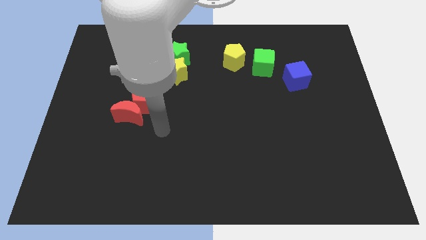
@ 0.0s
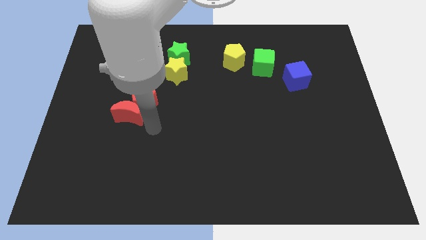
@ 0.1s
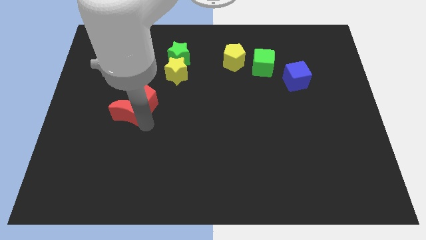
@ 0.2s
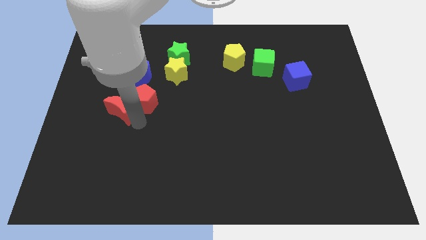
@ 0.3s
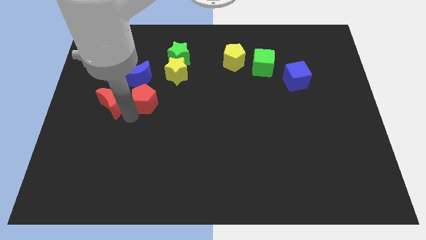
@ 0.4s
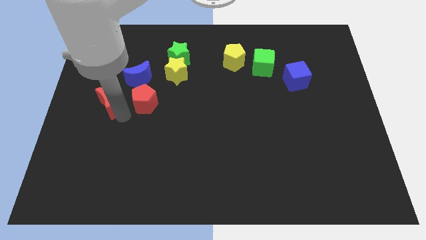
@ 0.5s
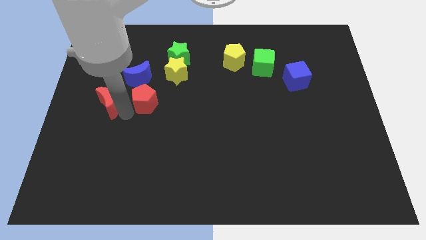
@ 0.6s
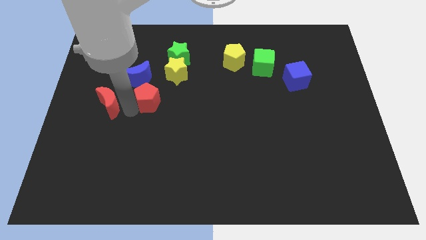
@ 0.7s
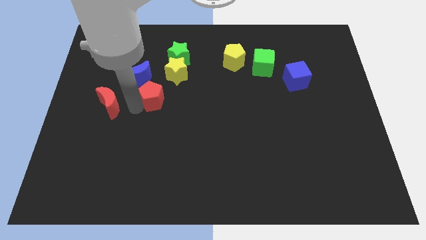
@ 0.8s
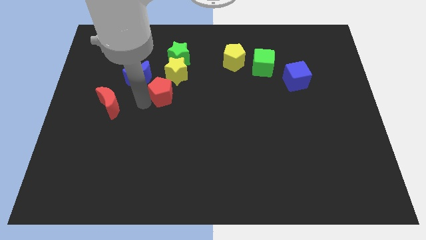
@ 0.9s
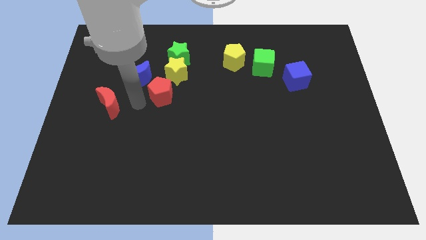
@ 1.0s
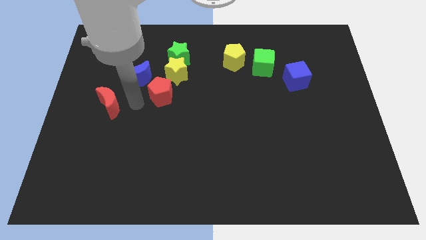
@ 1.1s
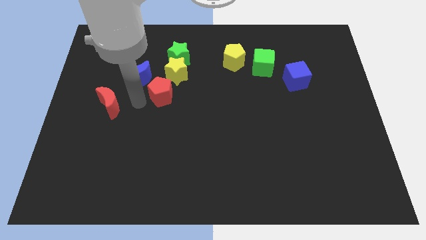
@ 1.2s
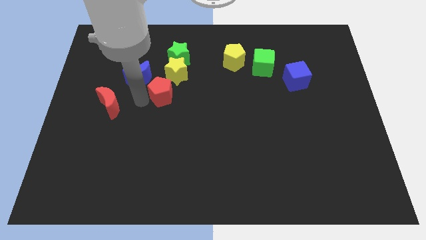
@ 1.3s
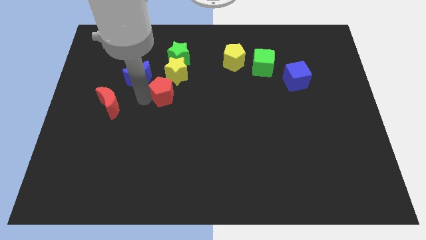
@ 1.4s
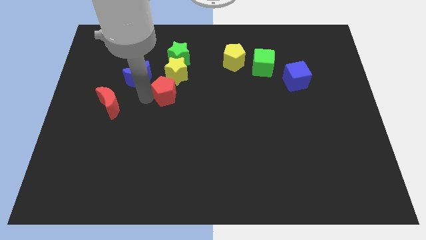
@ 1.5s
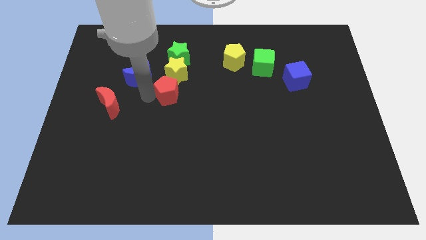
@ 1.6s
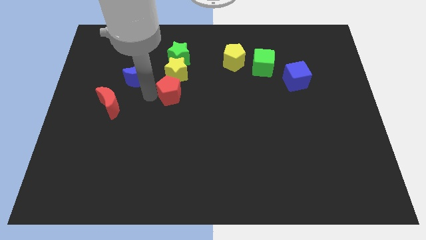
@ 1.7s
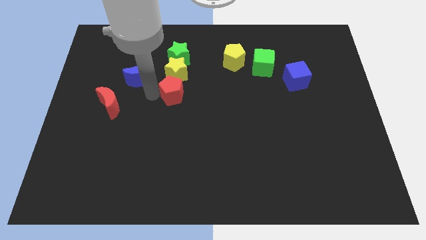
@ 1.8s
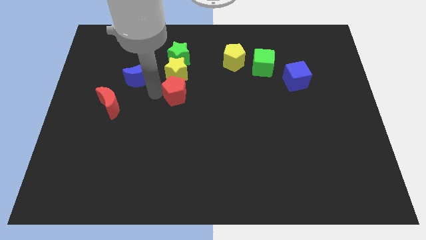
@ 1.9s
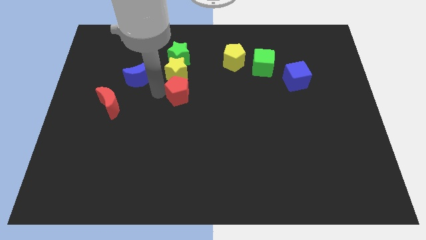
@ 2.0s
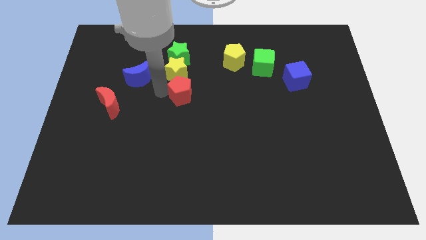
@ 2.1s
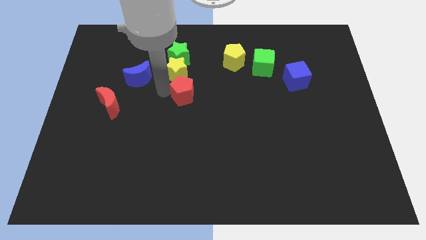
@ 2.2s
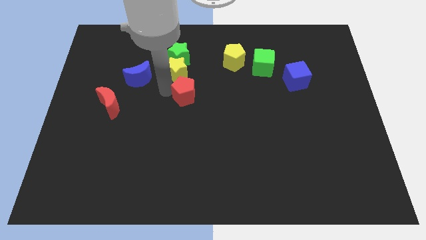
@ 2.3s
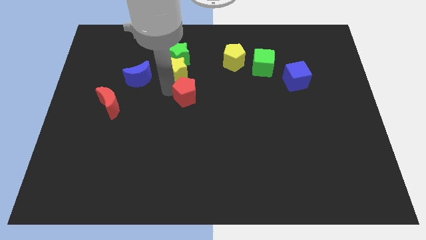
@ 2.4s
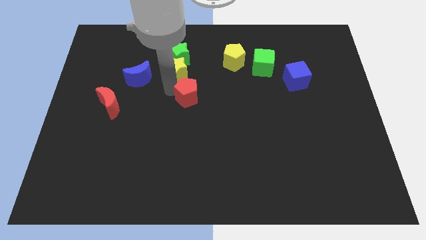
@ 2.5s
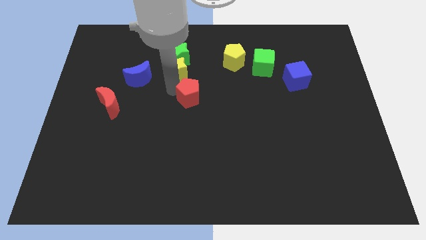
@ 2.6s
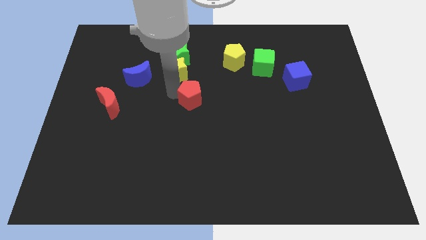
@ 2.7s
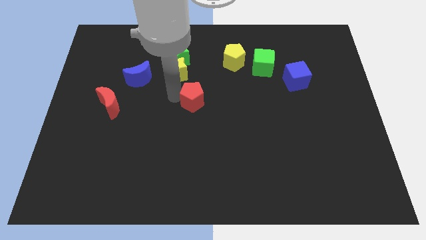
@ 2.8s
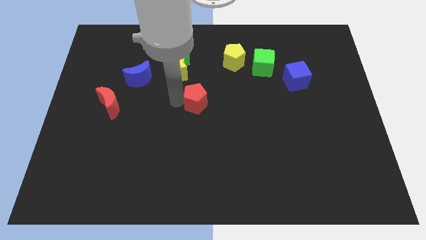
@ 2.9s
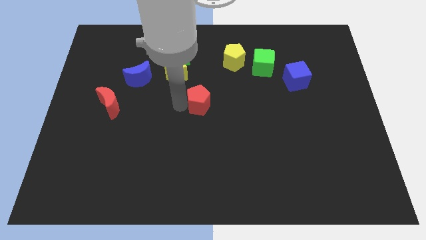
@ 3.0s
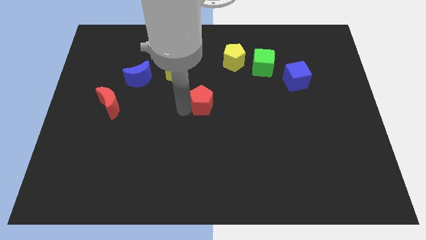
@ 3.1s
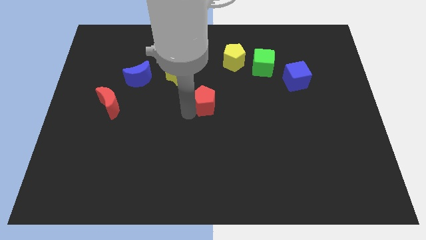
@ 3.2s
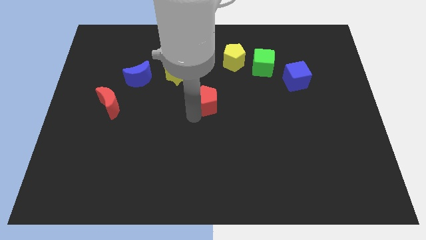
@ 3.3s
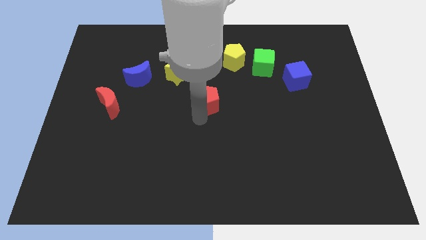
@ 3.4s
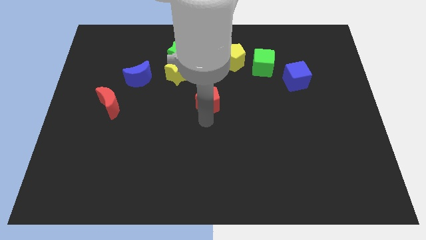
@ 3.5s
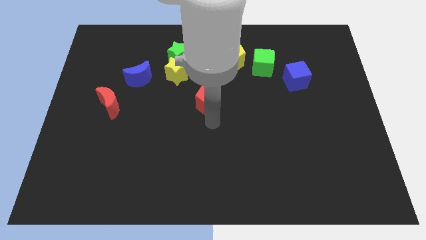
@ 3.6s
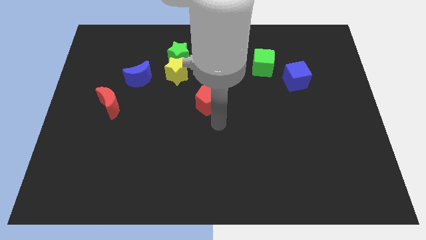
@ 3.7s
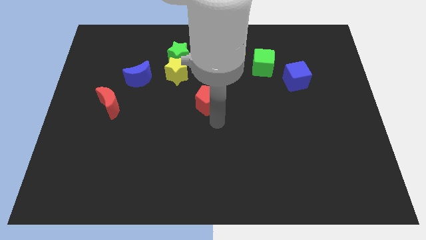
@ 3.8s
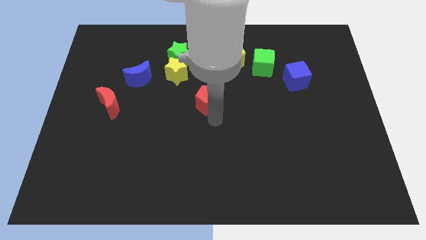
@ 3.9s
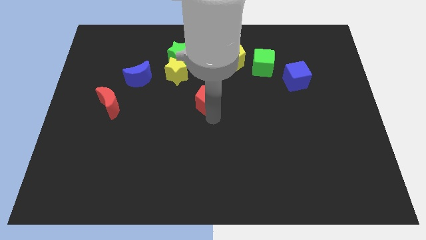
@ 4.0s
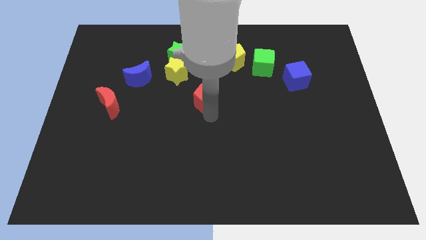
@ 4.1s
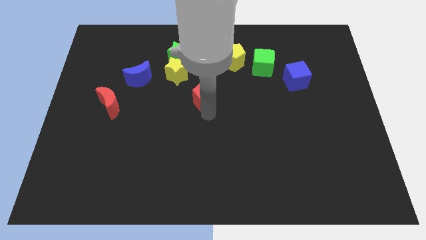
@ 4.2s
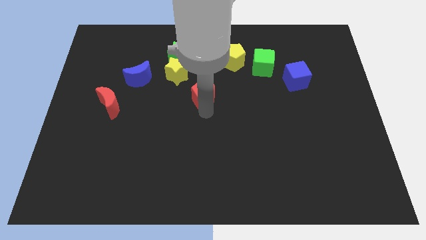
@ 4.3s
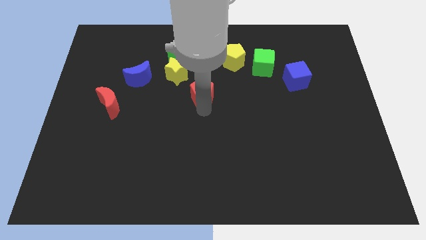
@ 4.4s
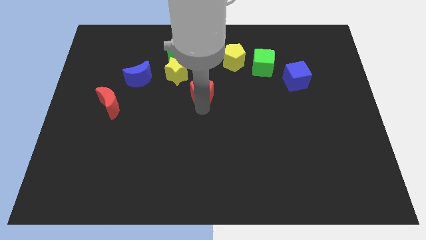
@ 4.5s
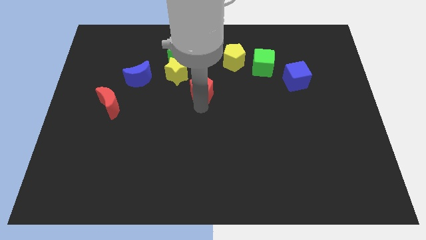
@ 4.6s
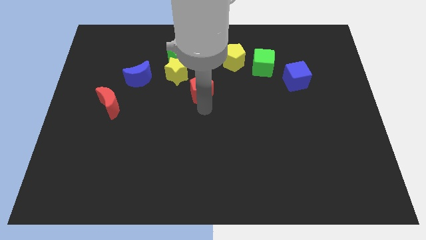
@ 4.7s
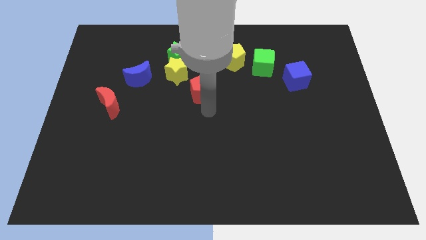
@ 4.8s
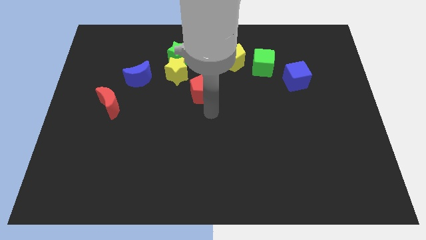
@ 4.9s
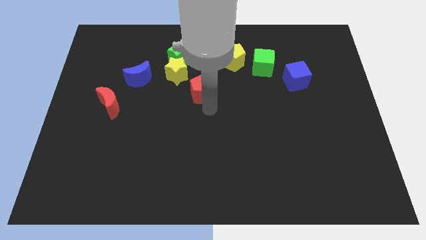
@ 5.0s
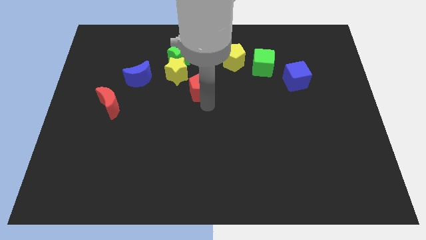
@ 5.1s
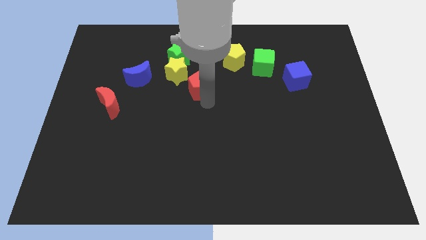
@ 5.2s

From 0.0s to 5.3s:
move the red pentagon to the right side of the yellow star

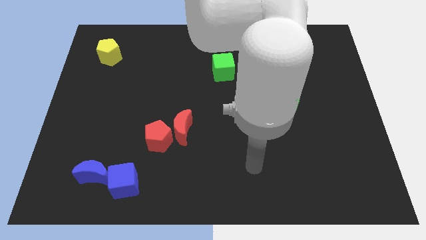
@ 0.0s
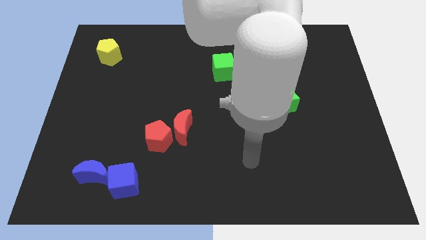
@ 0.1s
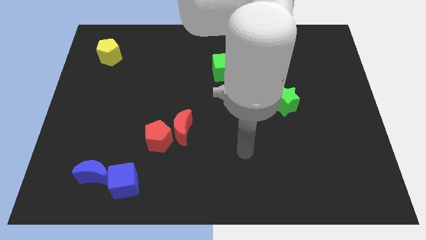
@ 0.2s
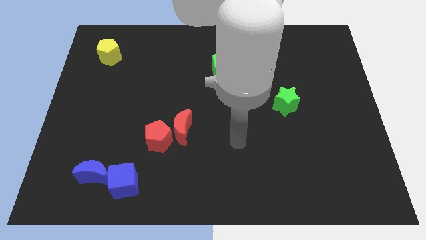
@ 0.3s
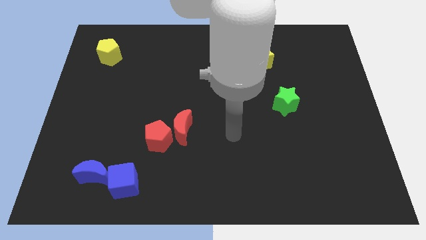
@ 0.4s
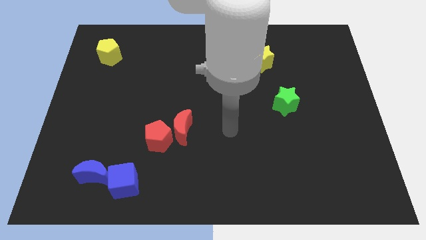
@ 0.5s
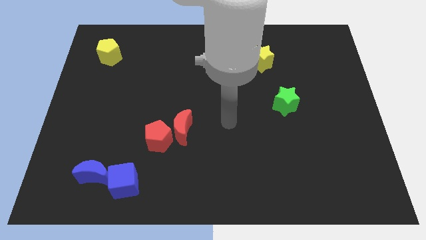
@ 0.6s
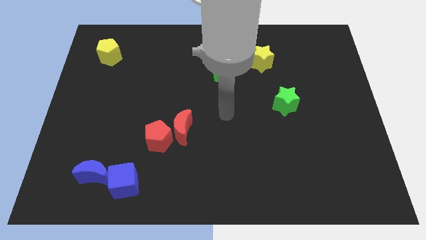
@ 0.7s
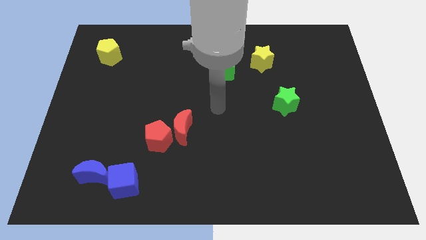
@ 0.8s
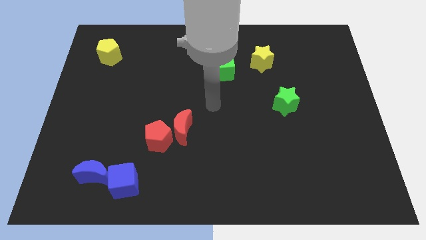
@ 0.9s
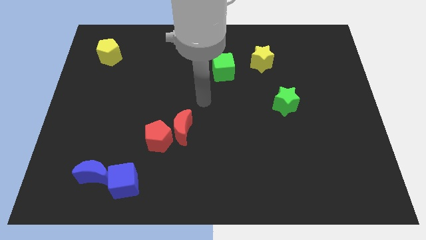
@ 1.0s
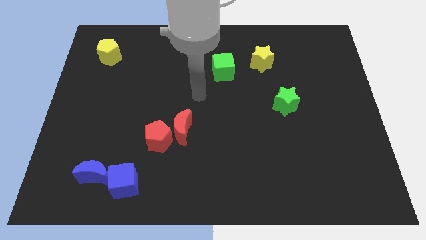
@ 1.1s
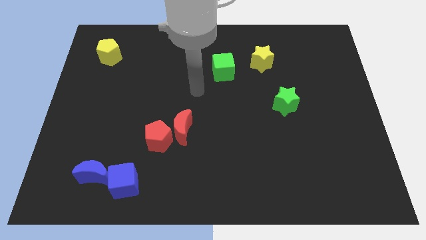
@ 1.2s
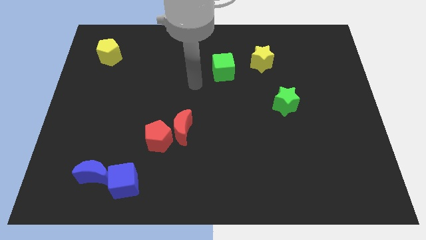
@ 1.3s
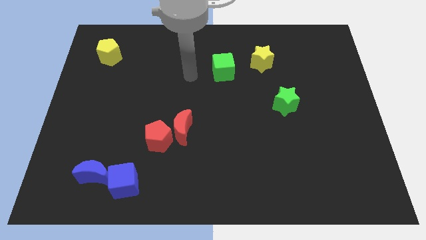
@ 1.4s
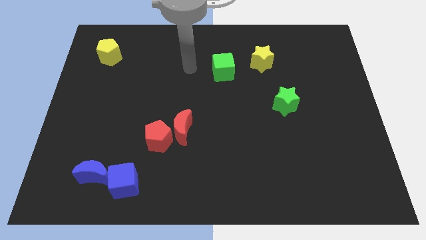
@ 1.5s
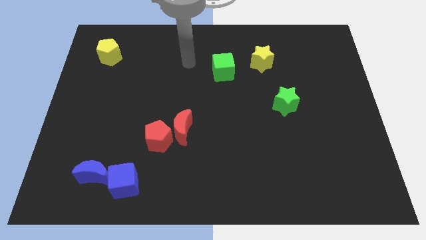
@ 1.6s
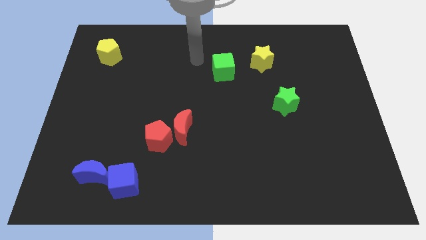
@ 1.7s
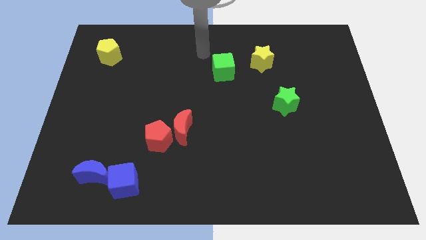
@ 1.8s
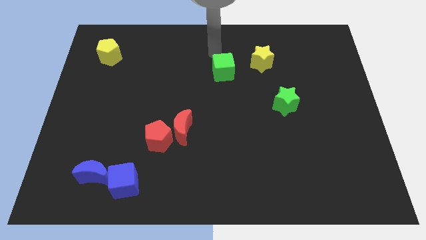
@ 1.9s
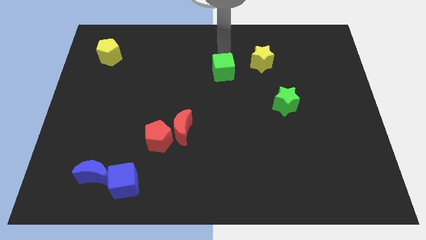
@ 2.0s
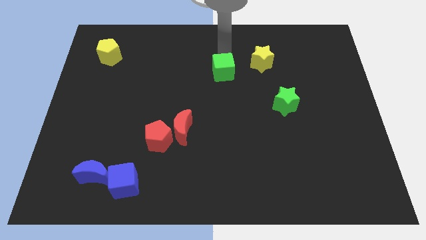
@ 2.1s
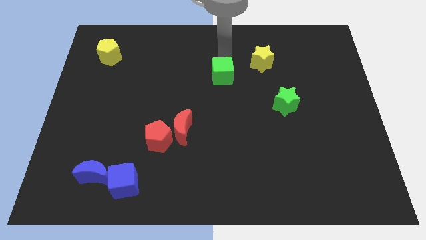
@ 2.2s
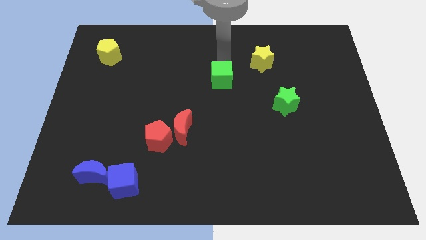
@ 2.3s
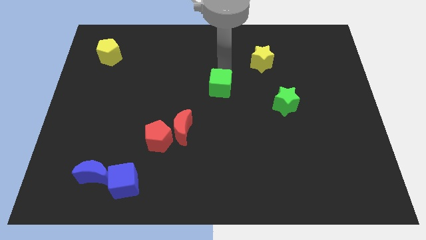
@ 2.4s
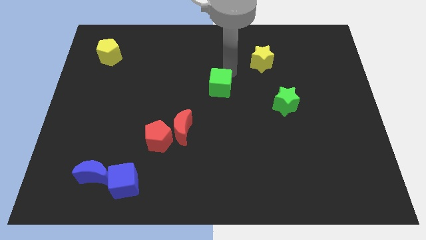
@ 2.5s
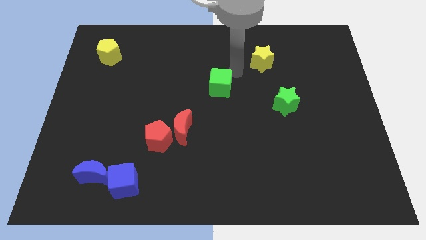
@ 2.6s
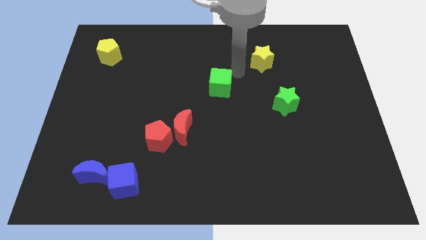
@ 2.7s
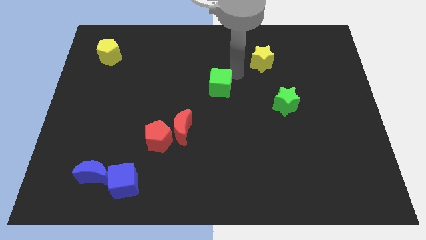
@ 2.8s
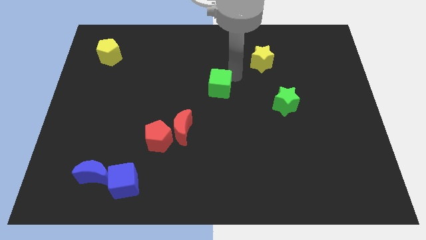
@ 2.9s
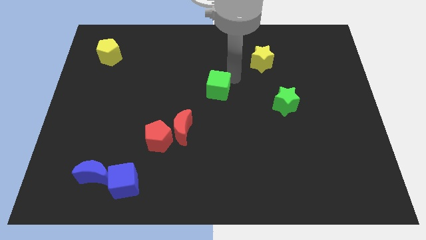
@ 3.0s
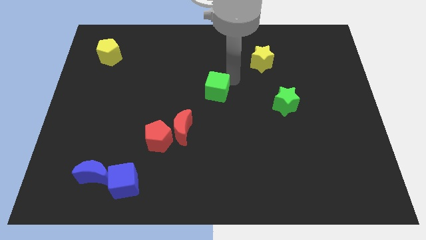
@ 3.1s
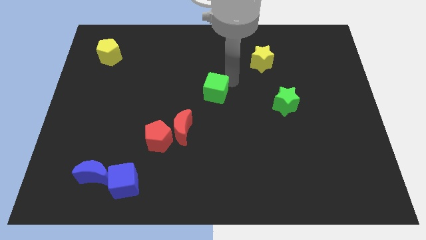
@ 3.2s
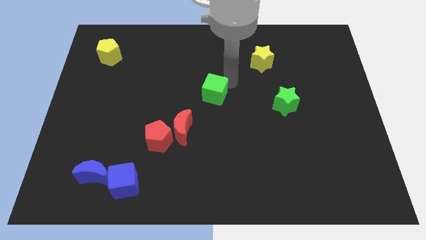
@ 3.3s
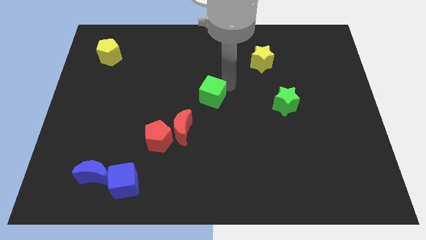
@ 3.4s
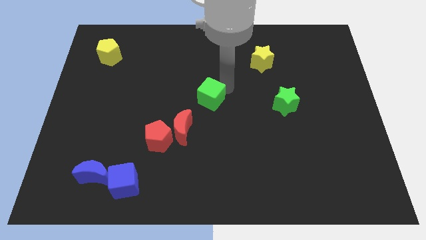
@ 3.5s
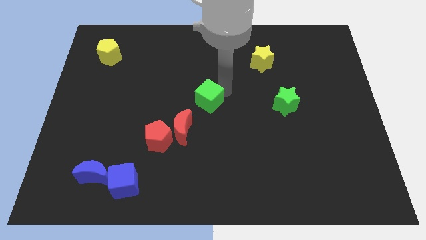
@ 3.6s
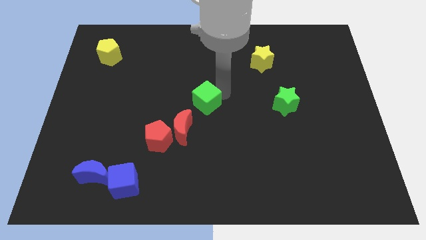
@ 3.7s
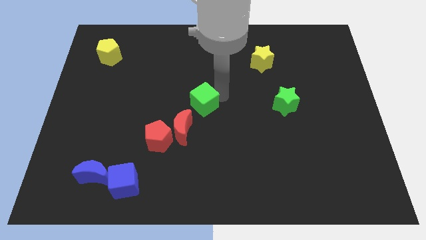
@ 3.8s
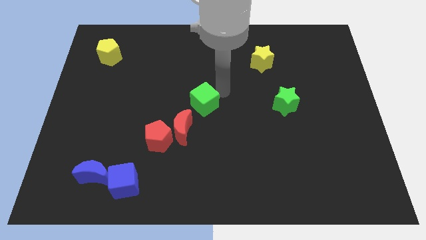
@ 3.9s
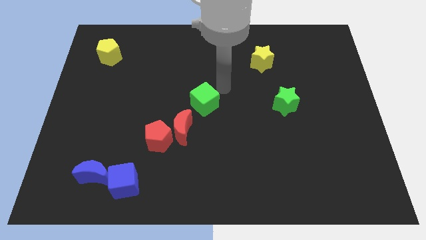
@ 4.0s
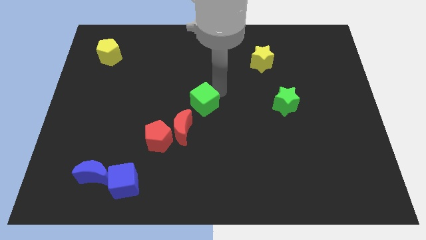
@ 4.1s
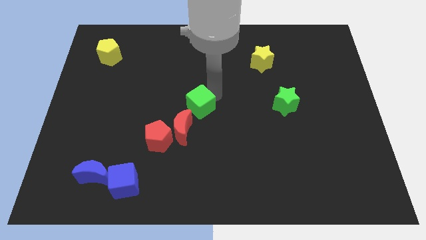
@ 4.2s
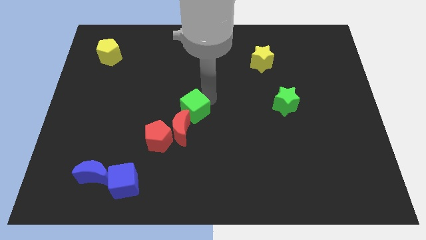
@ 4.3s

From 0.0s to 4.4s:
push the green cube to the top right of the red pentagon
